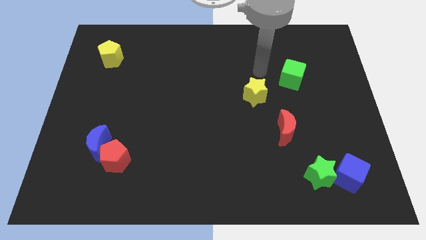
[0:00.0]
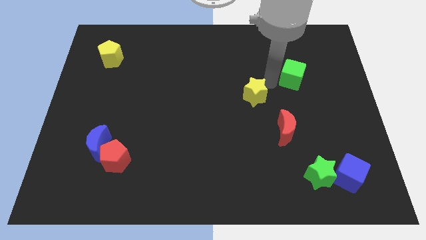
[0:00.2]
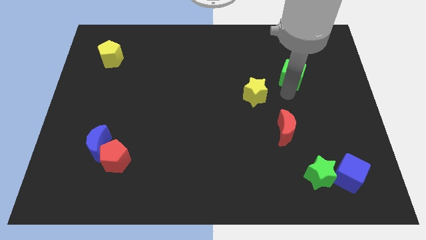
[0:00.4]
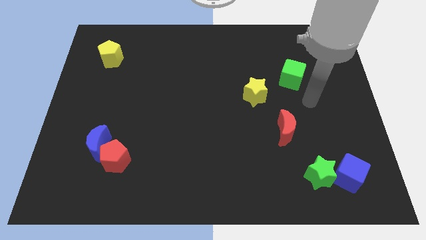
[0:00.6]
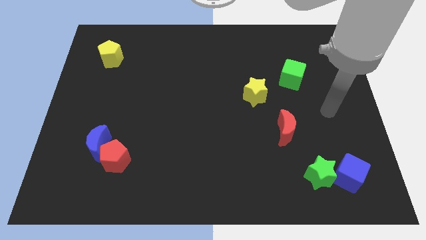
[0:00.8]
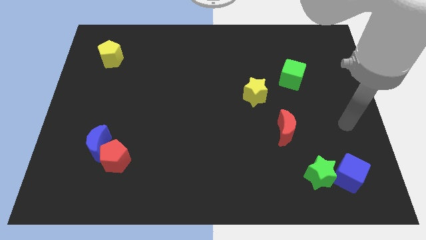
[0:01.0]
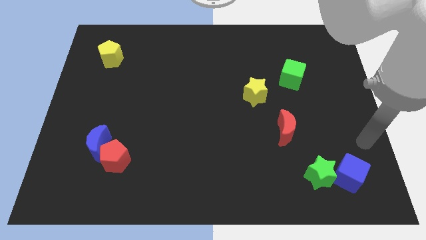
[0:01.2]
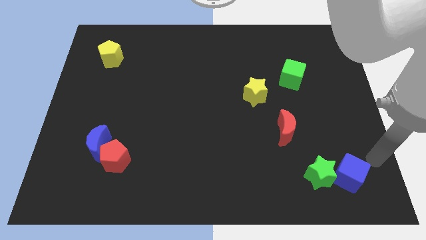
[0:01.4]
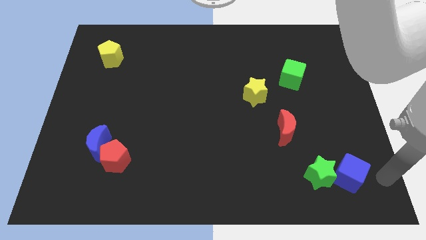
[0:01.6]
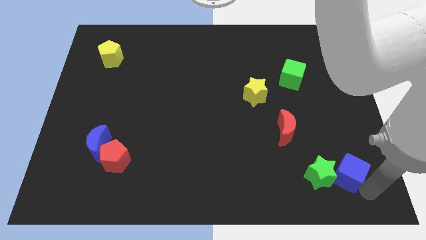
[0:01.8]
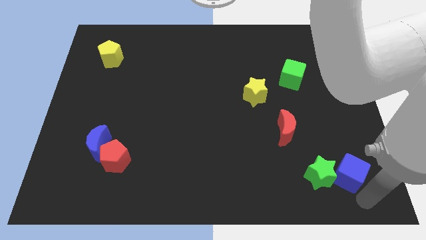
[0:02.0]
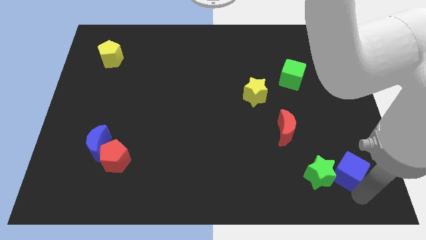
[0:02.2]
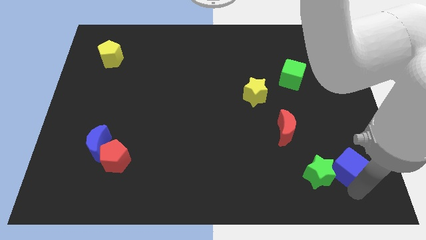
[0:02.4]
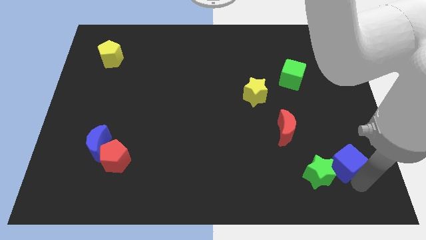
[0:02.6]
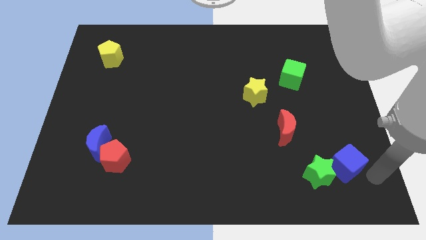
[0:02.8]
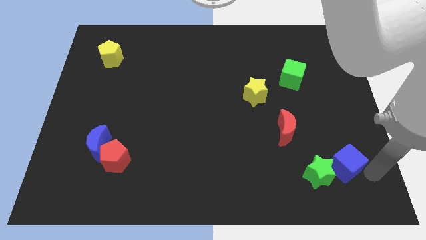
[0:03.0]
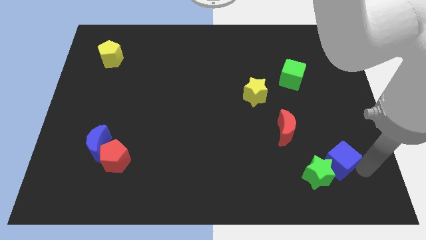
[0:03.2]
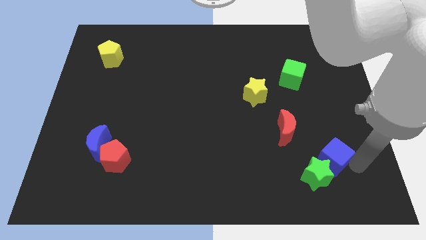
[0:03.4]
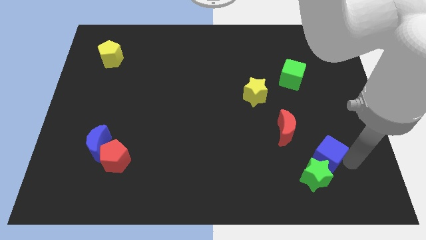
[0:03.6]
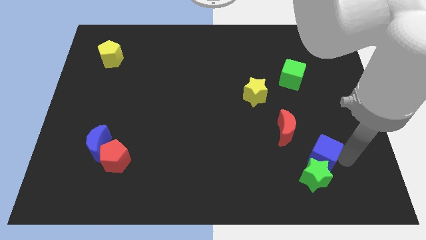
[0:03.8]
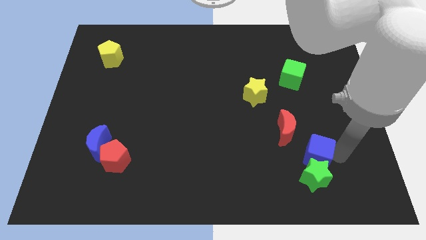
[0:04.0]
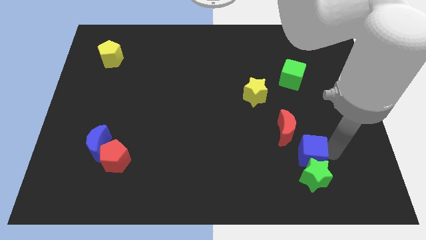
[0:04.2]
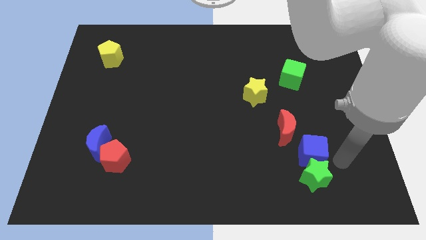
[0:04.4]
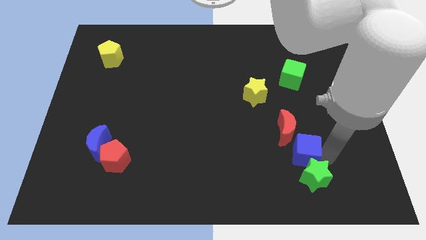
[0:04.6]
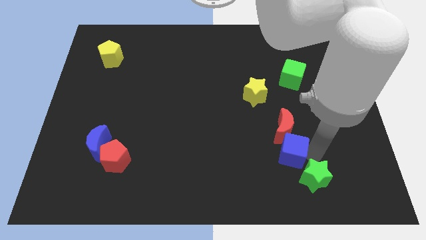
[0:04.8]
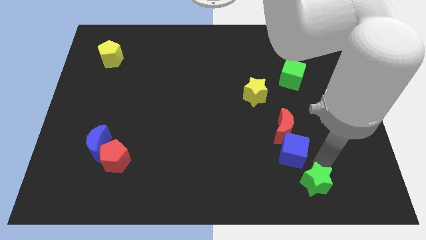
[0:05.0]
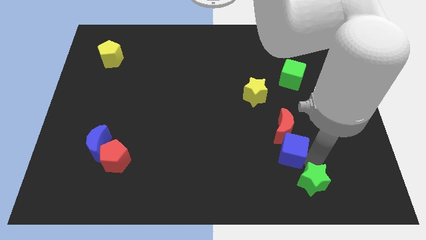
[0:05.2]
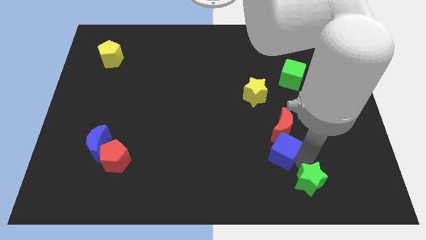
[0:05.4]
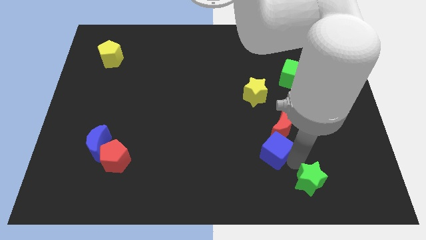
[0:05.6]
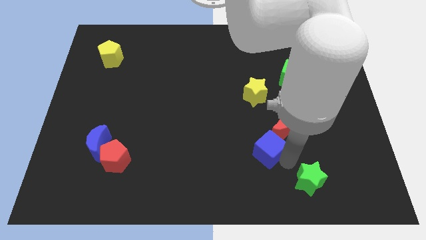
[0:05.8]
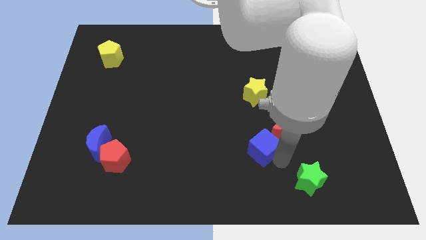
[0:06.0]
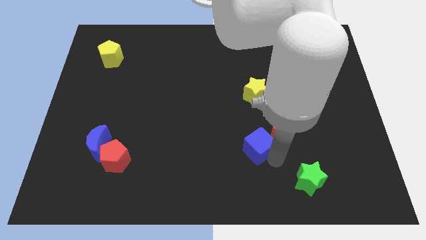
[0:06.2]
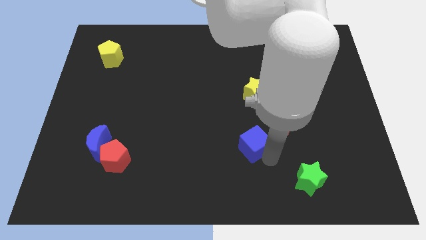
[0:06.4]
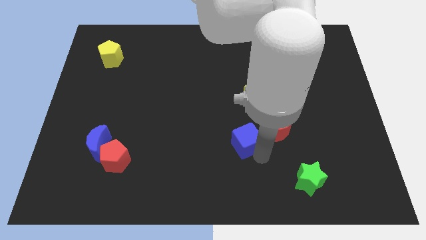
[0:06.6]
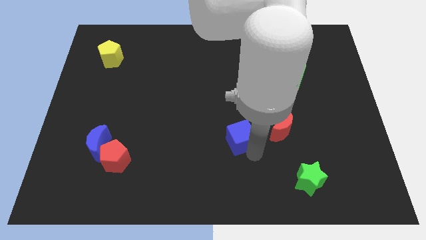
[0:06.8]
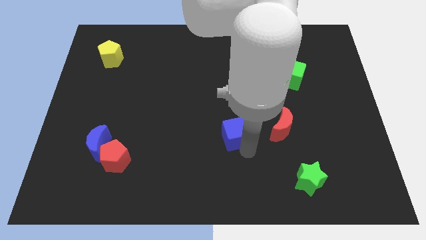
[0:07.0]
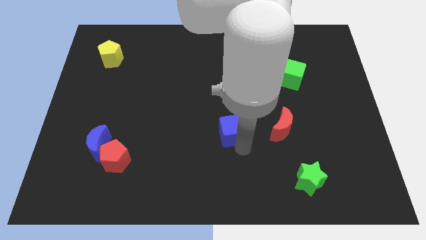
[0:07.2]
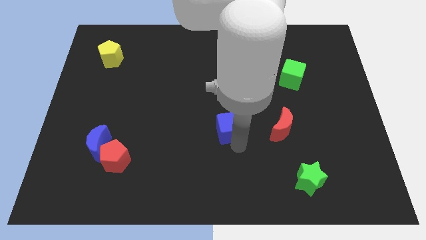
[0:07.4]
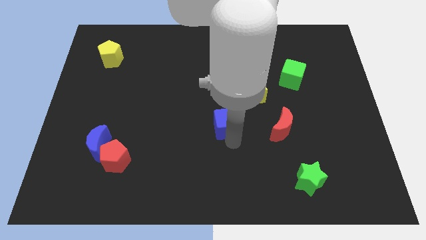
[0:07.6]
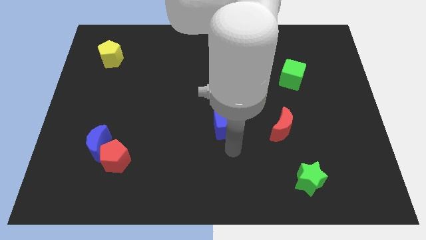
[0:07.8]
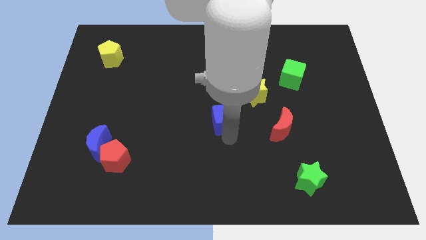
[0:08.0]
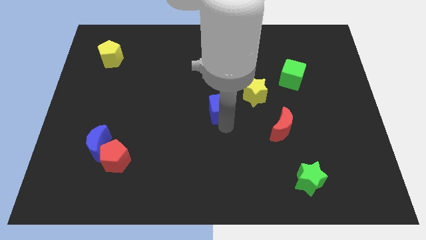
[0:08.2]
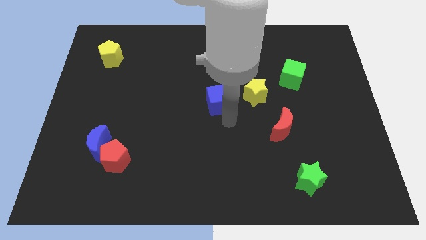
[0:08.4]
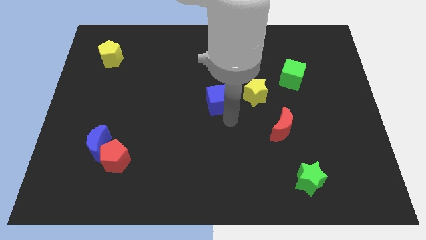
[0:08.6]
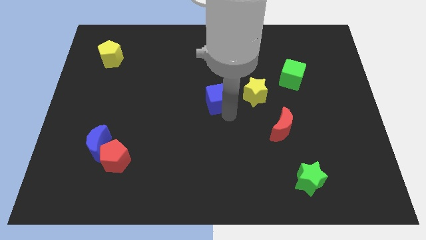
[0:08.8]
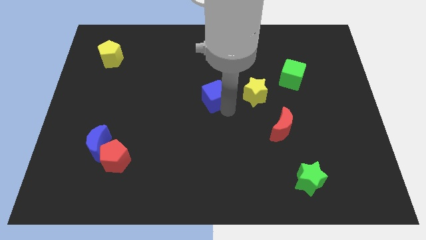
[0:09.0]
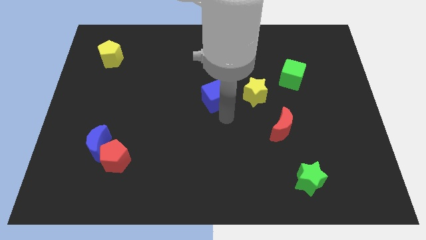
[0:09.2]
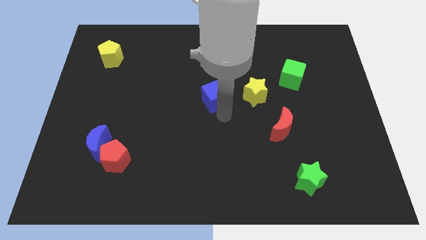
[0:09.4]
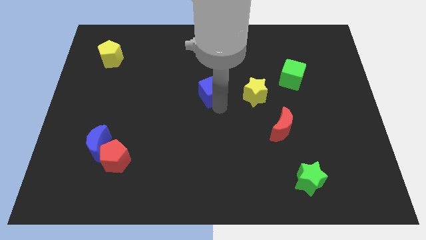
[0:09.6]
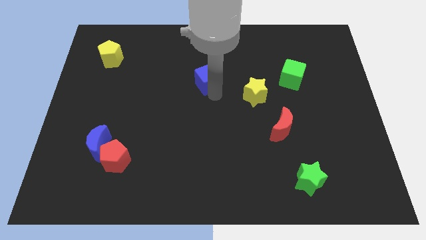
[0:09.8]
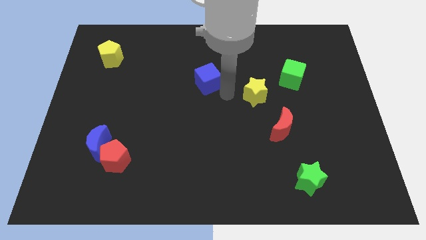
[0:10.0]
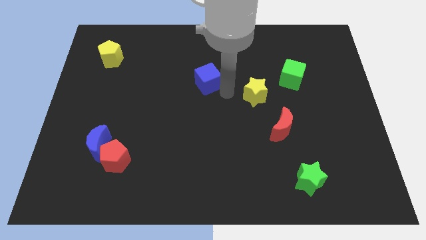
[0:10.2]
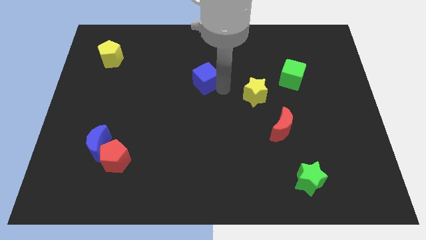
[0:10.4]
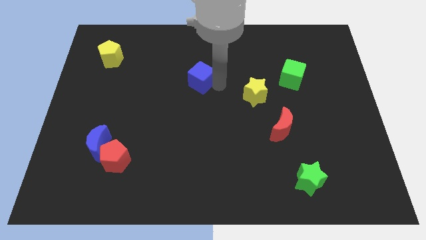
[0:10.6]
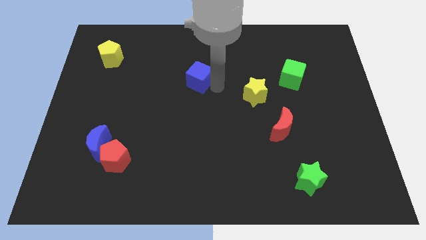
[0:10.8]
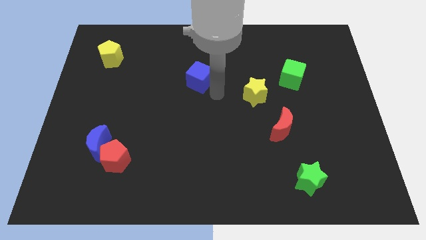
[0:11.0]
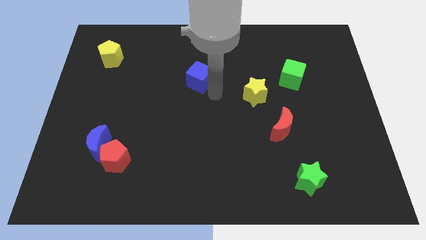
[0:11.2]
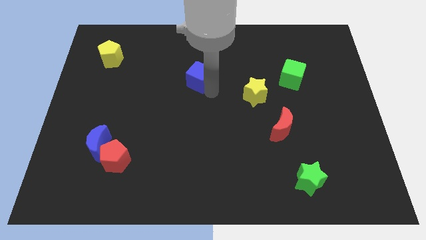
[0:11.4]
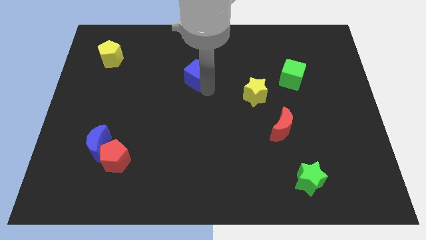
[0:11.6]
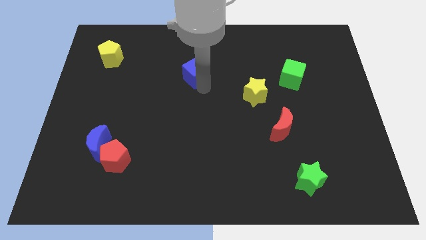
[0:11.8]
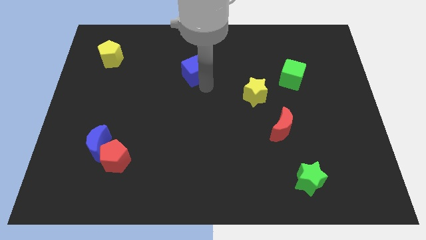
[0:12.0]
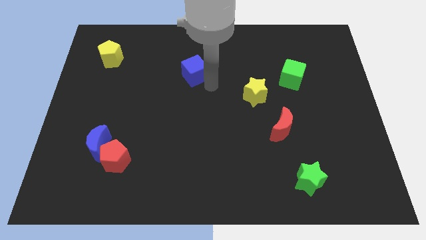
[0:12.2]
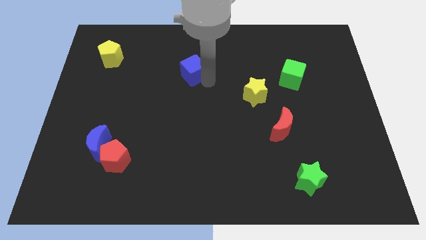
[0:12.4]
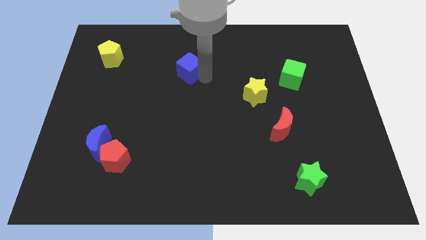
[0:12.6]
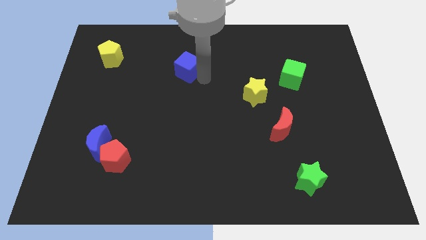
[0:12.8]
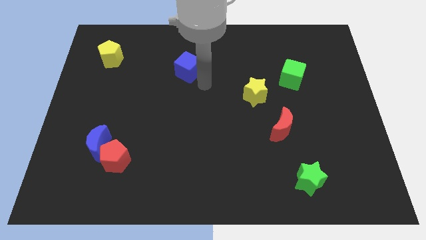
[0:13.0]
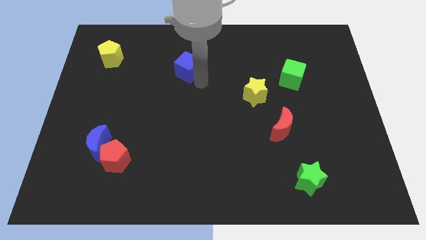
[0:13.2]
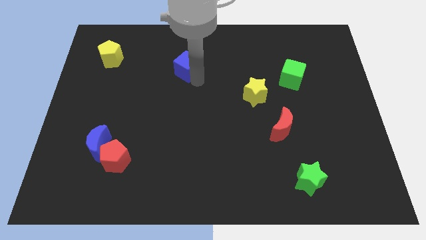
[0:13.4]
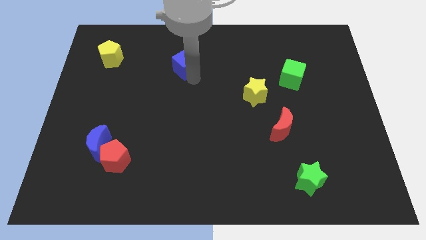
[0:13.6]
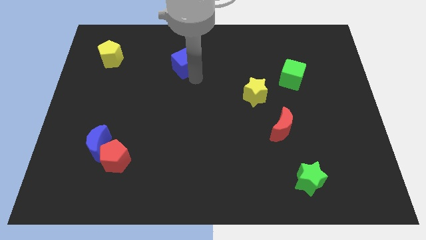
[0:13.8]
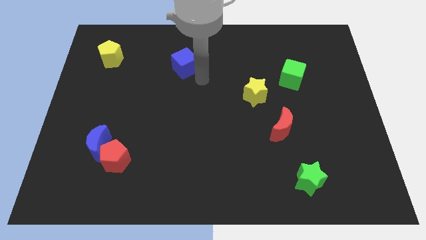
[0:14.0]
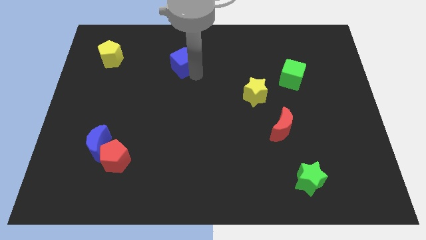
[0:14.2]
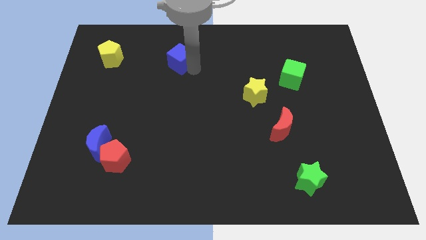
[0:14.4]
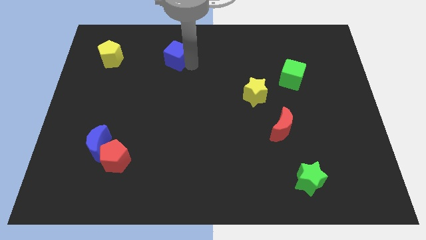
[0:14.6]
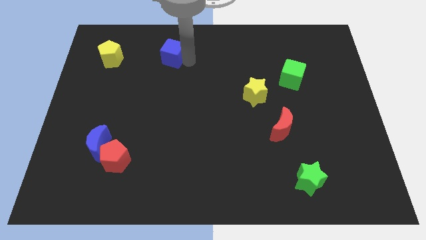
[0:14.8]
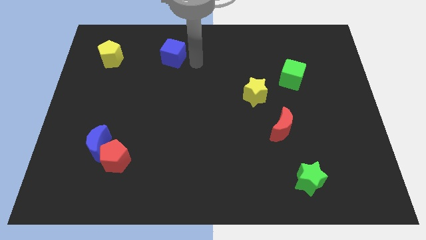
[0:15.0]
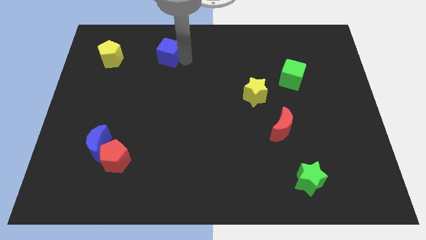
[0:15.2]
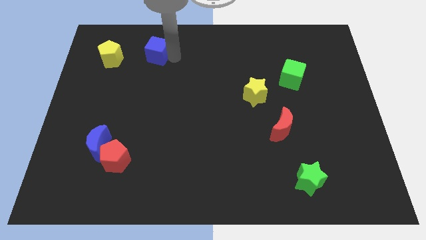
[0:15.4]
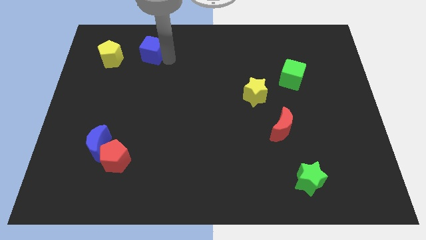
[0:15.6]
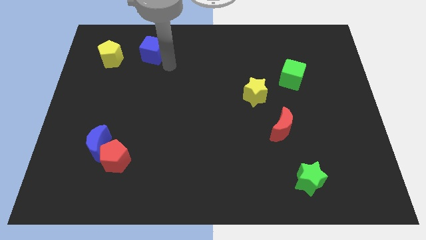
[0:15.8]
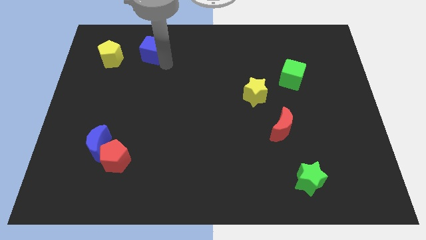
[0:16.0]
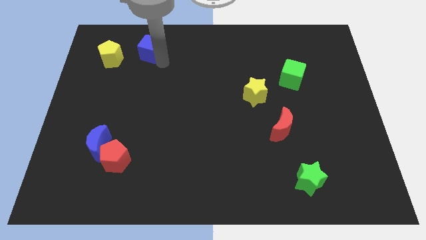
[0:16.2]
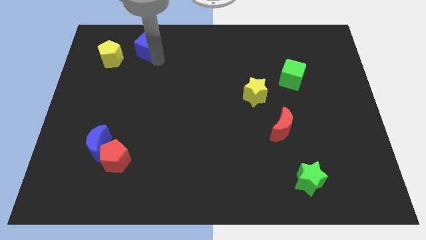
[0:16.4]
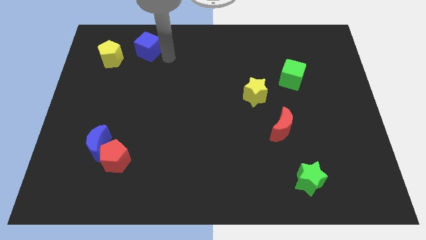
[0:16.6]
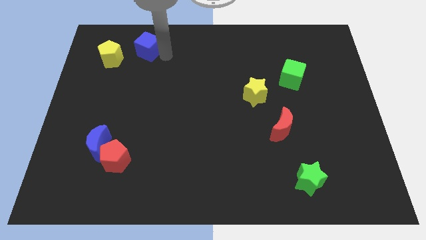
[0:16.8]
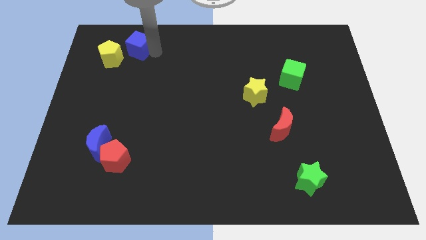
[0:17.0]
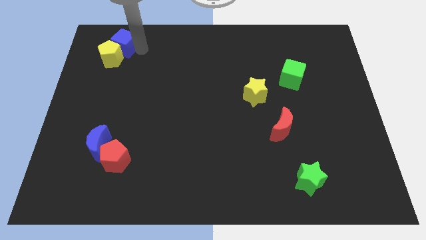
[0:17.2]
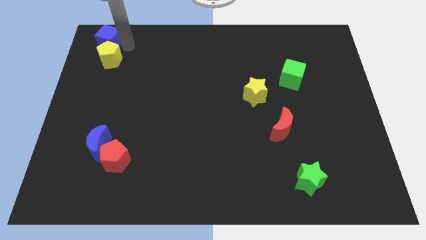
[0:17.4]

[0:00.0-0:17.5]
push the blue cube to the upper left corner
